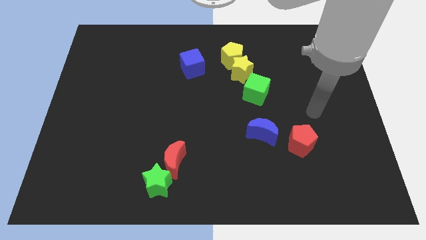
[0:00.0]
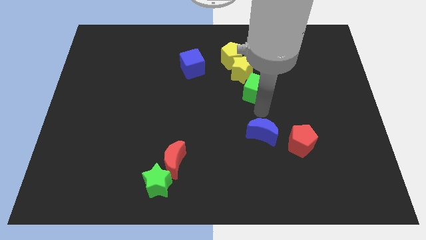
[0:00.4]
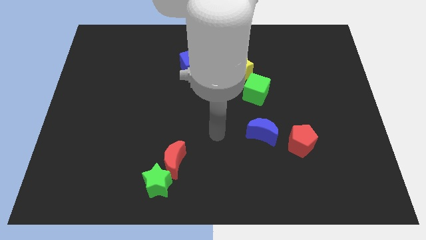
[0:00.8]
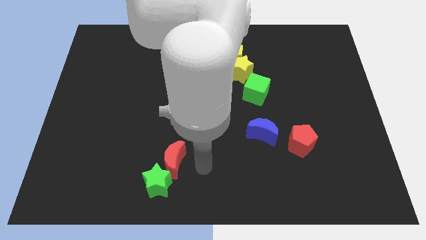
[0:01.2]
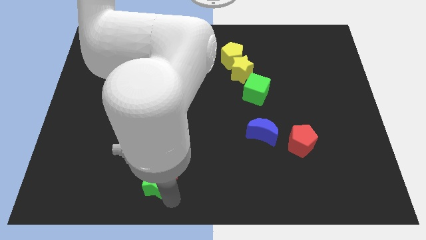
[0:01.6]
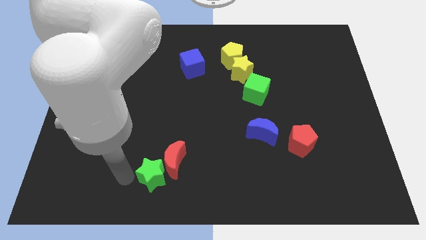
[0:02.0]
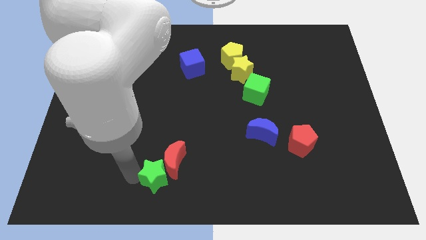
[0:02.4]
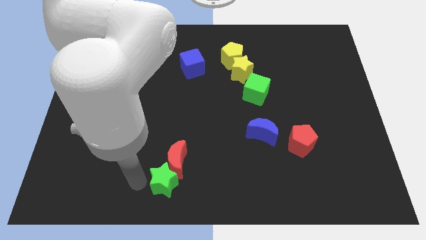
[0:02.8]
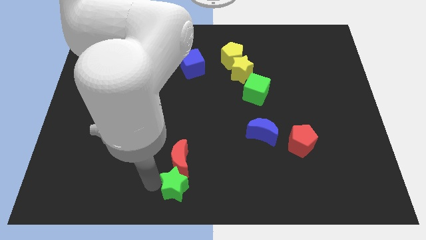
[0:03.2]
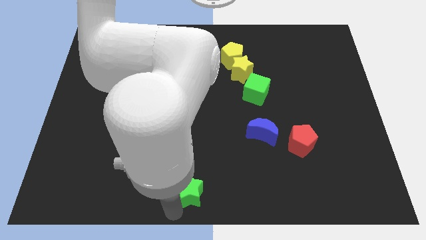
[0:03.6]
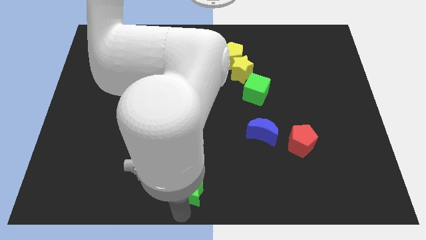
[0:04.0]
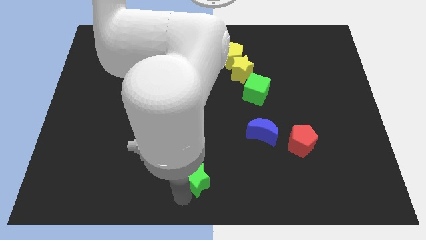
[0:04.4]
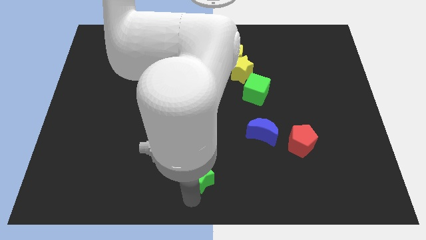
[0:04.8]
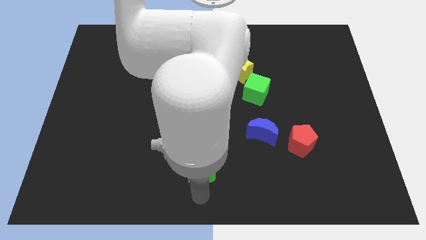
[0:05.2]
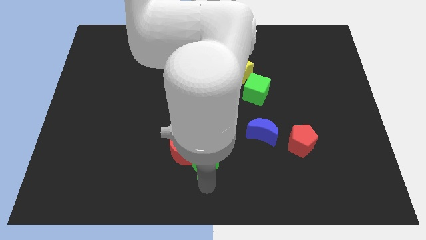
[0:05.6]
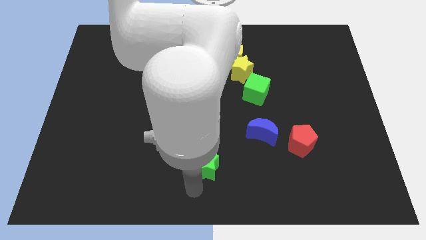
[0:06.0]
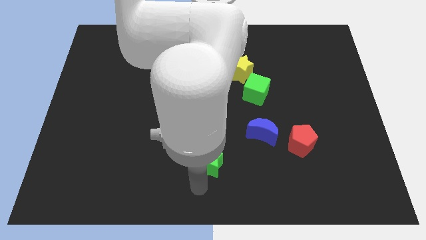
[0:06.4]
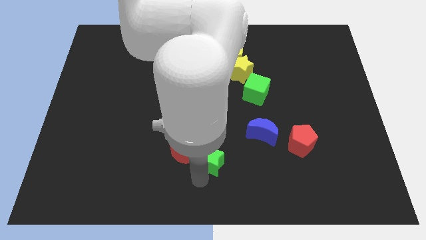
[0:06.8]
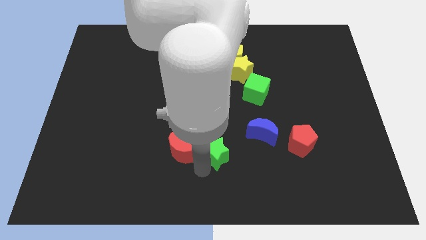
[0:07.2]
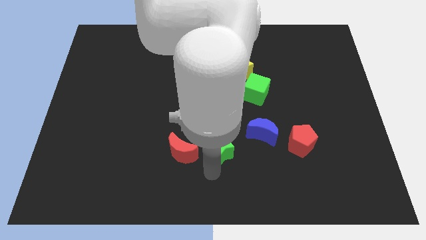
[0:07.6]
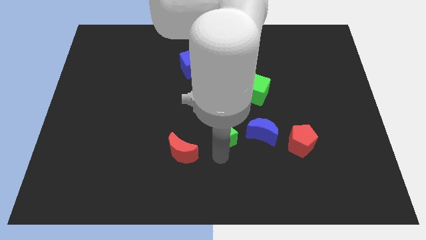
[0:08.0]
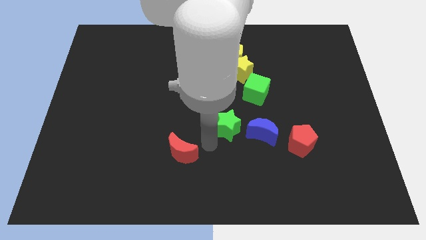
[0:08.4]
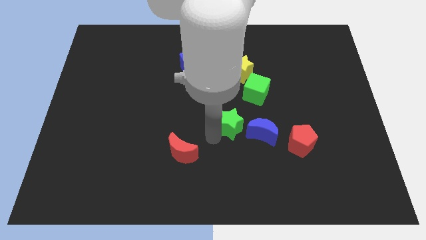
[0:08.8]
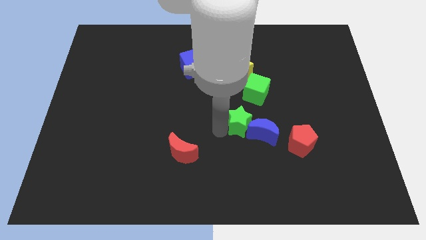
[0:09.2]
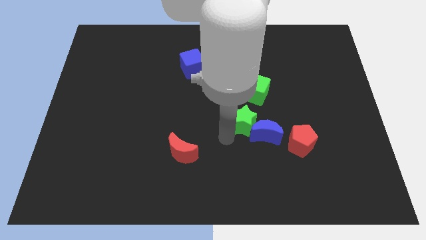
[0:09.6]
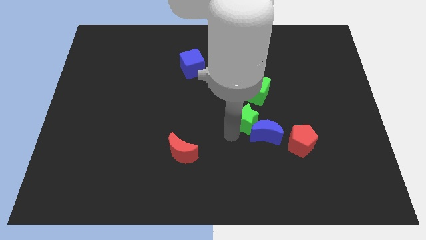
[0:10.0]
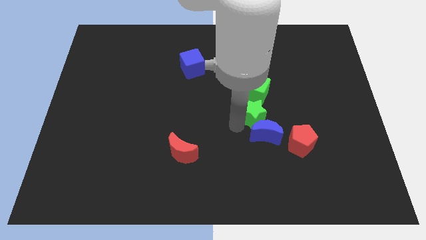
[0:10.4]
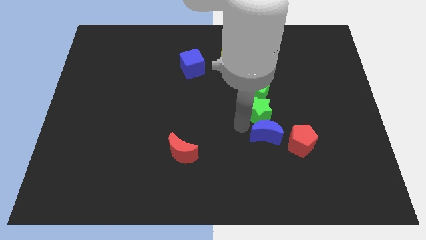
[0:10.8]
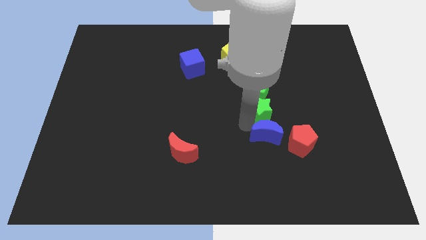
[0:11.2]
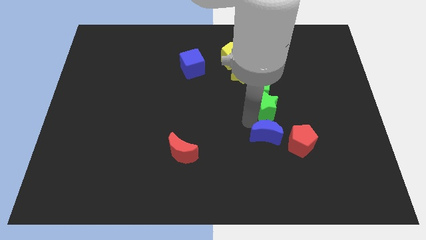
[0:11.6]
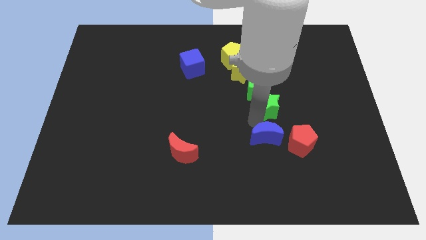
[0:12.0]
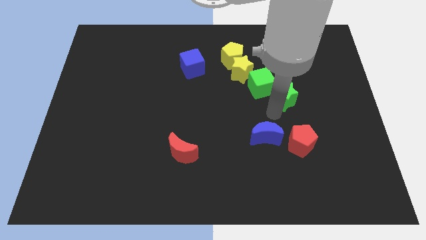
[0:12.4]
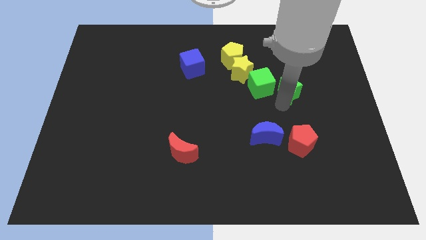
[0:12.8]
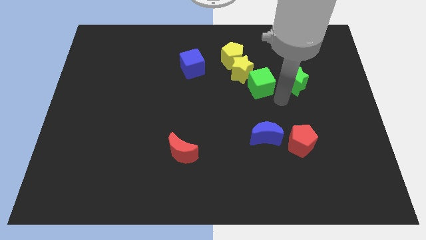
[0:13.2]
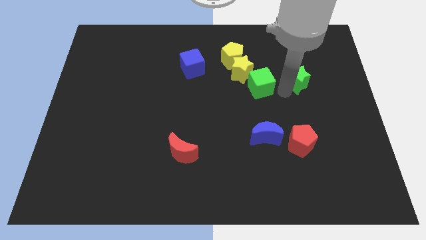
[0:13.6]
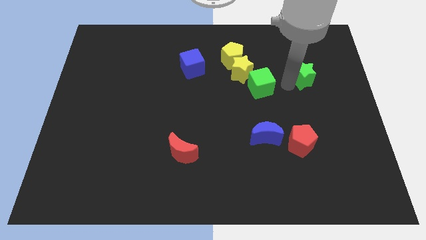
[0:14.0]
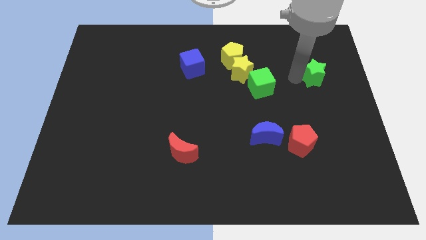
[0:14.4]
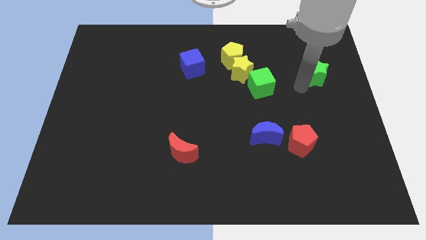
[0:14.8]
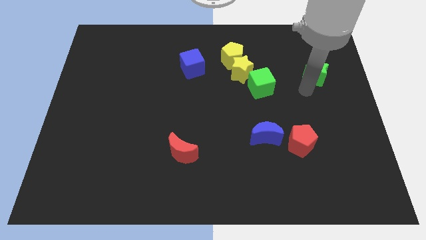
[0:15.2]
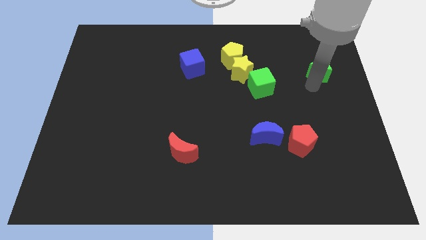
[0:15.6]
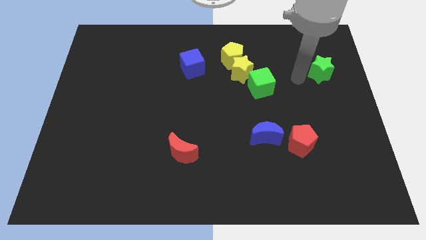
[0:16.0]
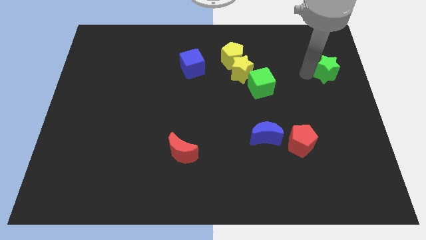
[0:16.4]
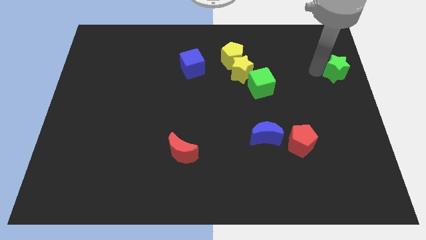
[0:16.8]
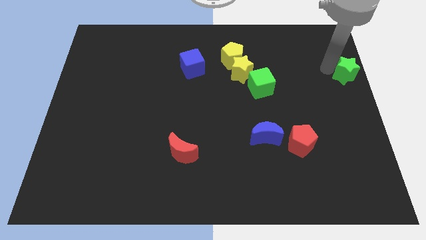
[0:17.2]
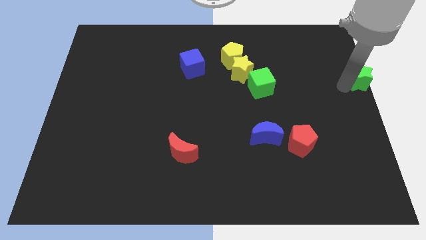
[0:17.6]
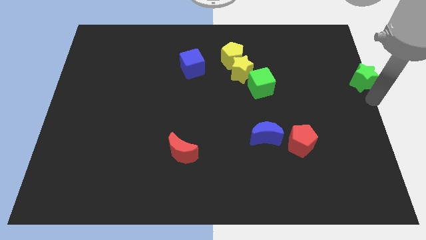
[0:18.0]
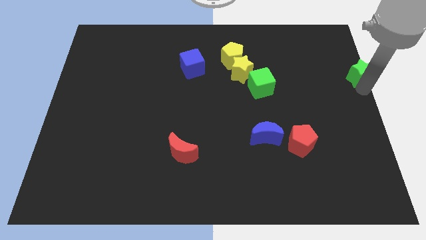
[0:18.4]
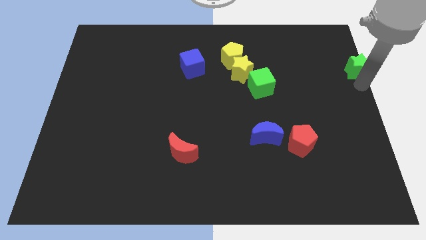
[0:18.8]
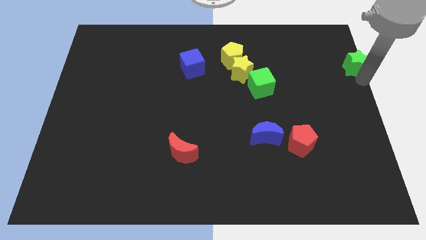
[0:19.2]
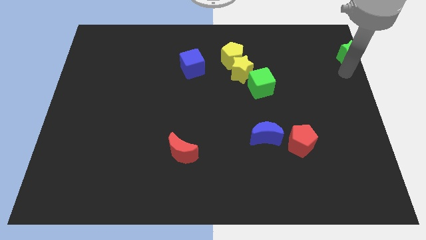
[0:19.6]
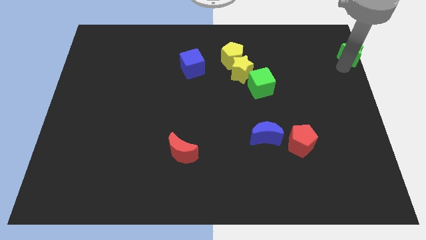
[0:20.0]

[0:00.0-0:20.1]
put the green star to the top right

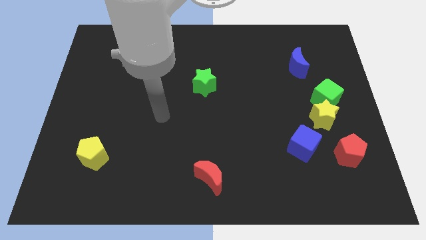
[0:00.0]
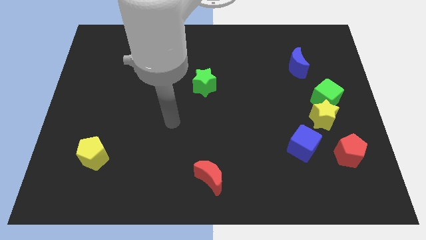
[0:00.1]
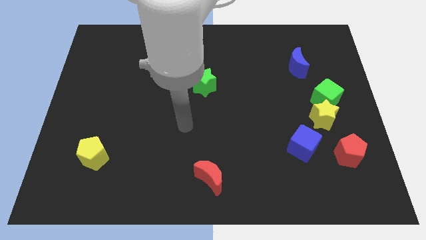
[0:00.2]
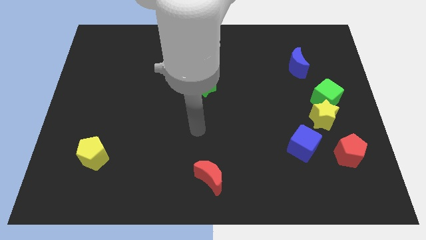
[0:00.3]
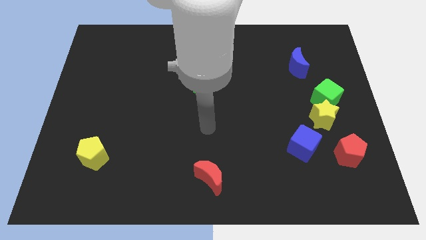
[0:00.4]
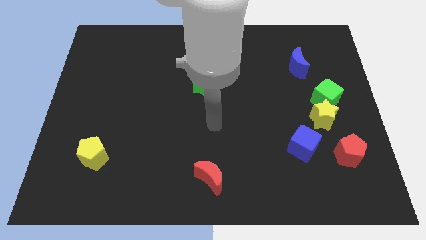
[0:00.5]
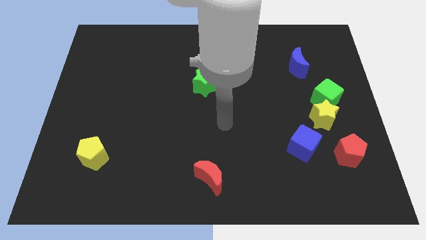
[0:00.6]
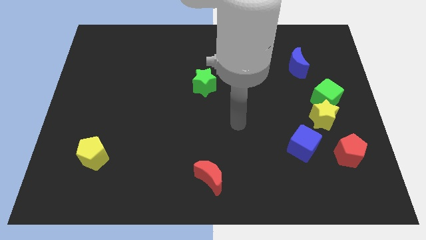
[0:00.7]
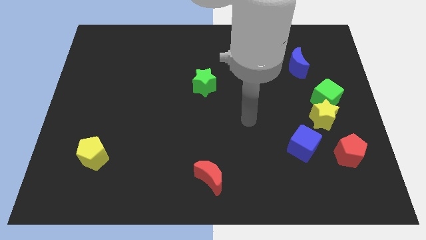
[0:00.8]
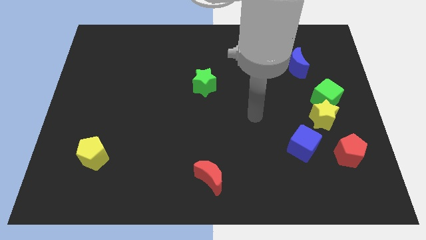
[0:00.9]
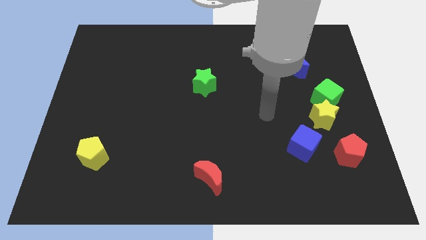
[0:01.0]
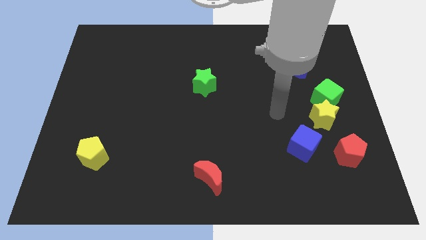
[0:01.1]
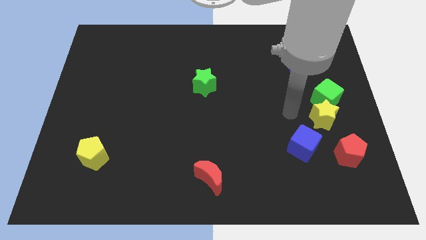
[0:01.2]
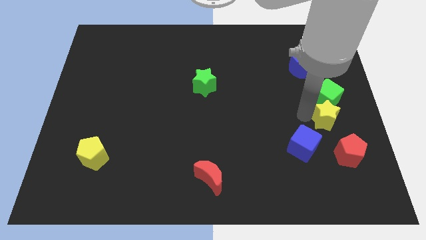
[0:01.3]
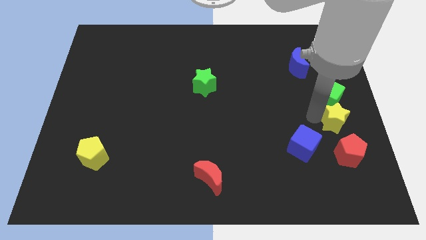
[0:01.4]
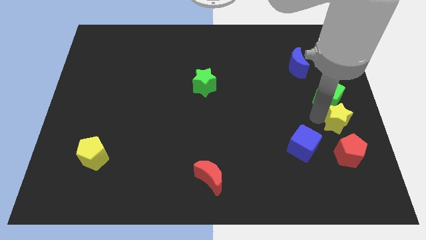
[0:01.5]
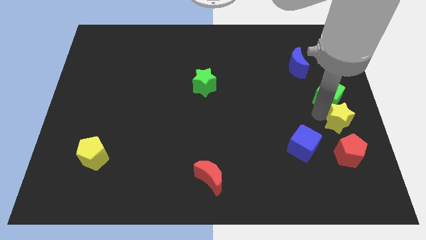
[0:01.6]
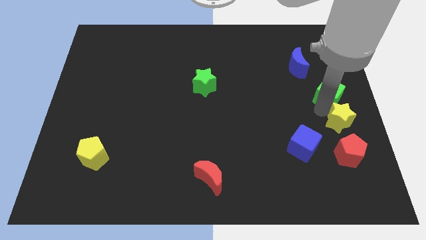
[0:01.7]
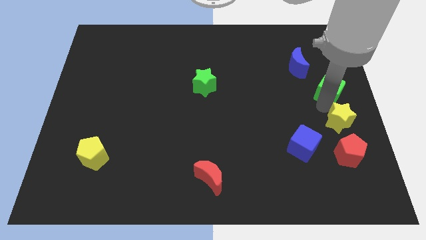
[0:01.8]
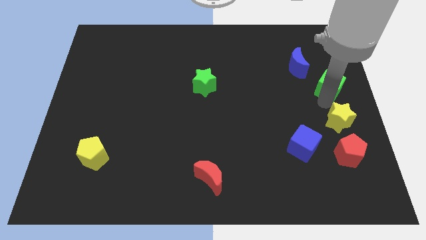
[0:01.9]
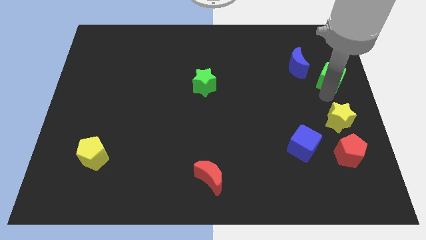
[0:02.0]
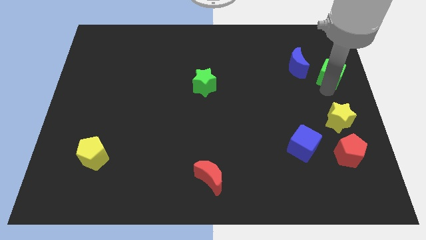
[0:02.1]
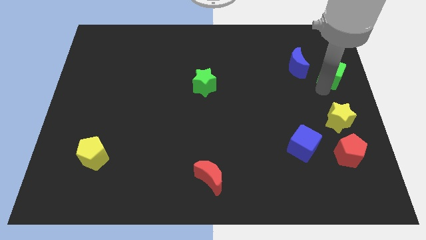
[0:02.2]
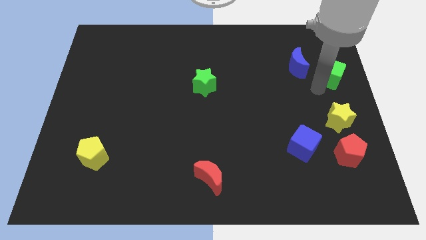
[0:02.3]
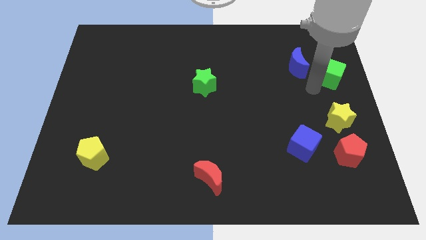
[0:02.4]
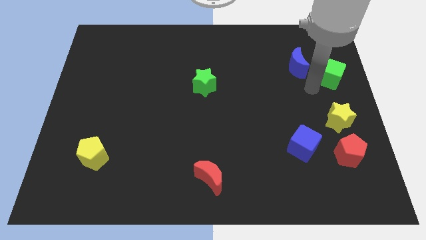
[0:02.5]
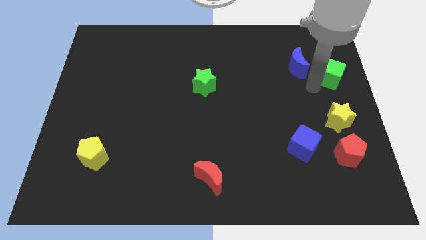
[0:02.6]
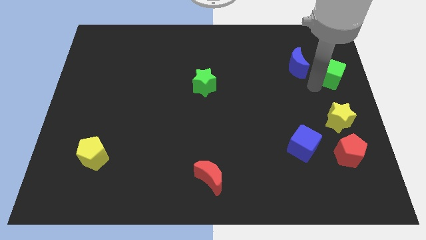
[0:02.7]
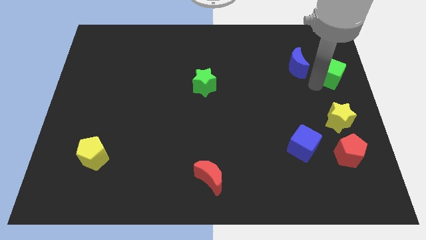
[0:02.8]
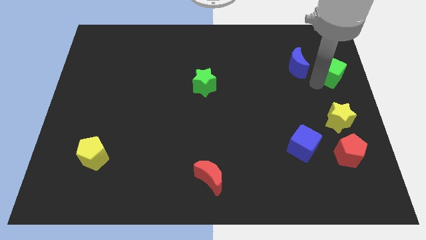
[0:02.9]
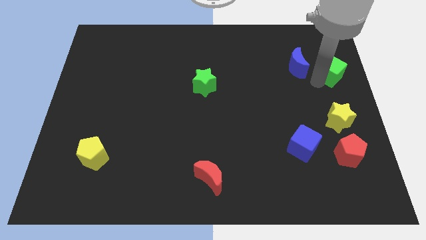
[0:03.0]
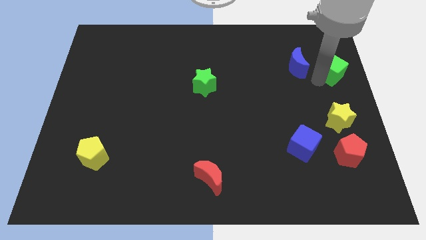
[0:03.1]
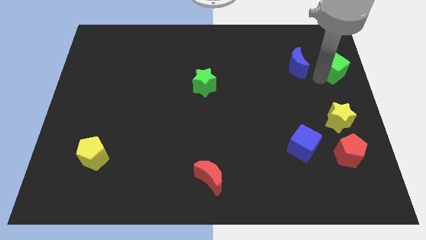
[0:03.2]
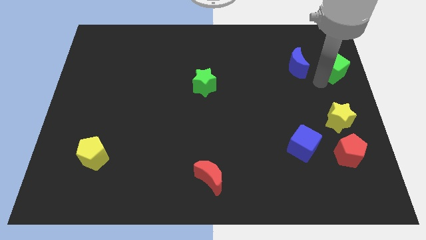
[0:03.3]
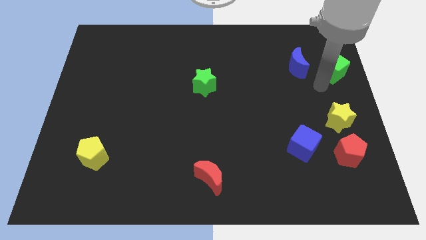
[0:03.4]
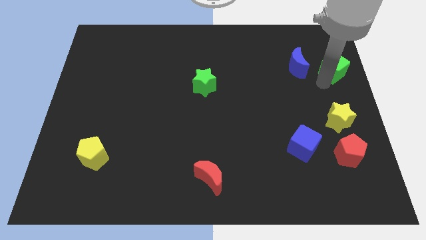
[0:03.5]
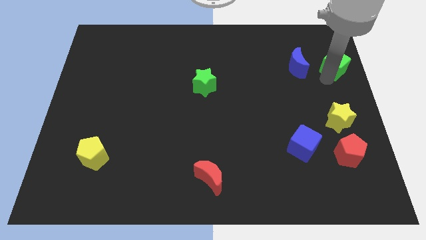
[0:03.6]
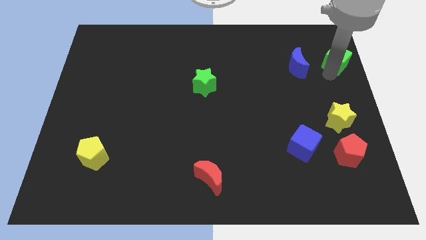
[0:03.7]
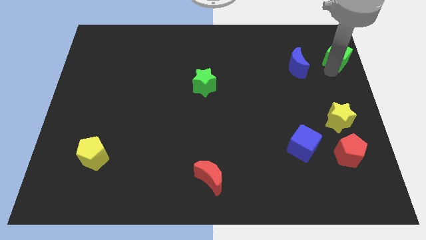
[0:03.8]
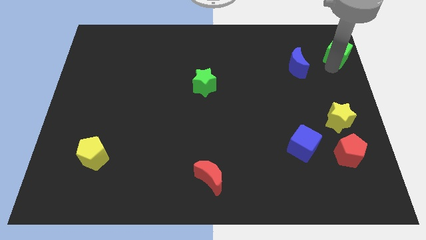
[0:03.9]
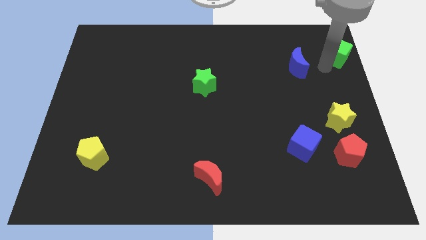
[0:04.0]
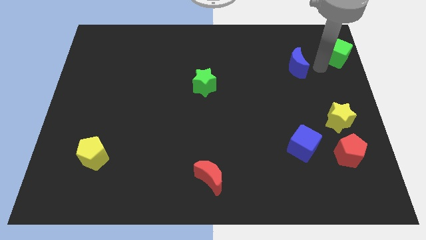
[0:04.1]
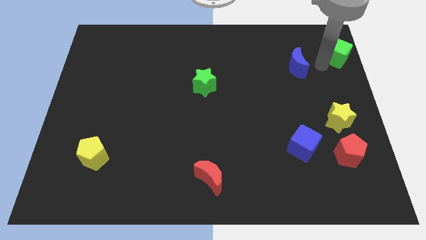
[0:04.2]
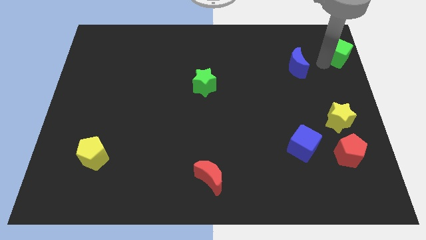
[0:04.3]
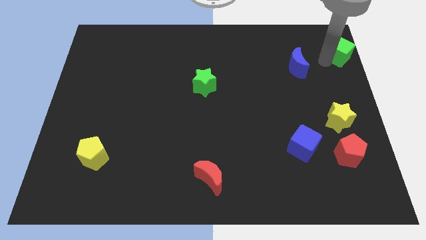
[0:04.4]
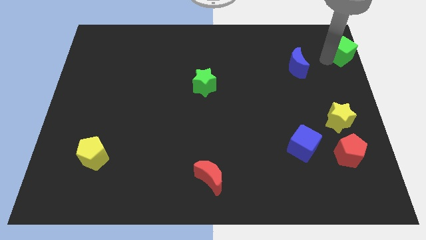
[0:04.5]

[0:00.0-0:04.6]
move the green cube to the top right of the board
